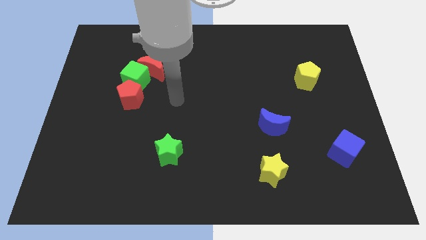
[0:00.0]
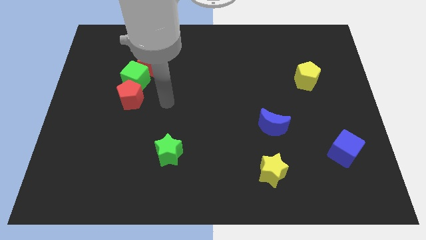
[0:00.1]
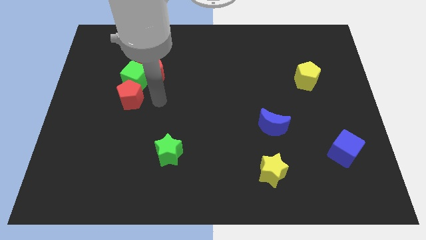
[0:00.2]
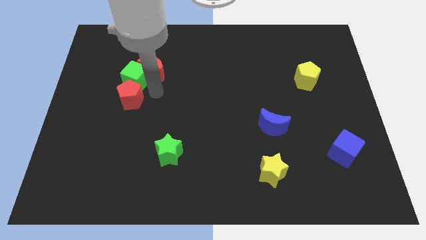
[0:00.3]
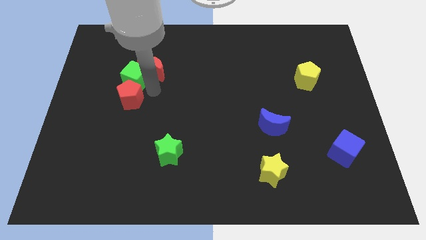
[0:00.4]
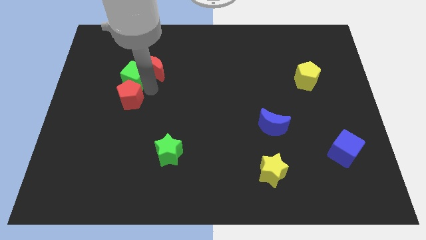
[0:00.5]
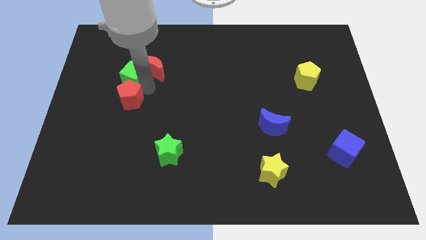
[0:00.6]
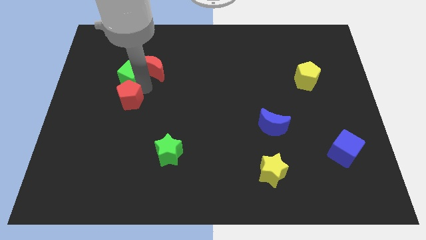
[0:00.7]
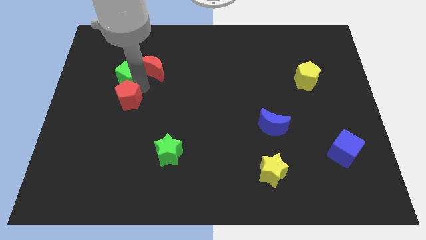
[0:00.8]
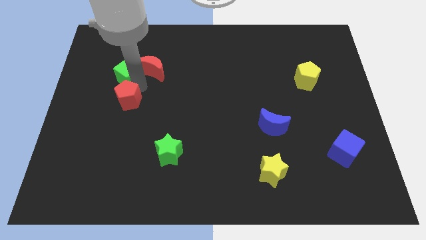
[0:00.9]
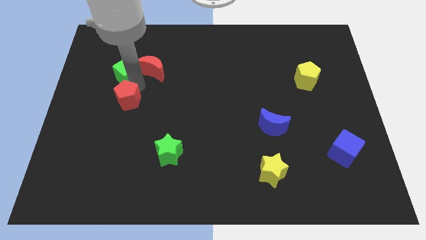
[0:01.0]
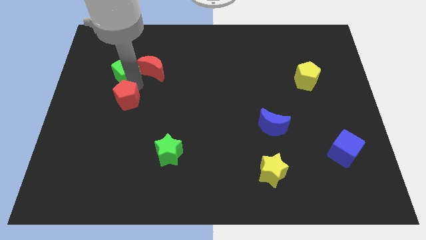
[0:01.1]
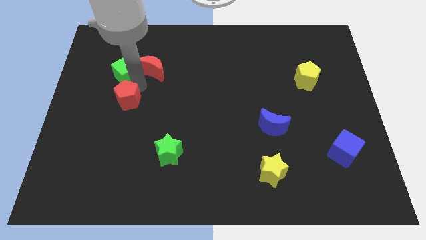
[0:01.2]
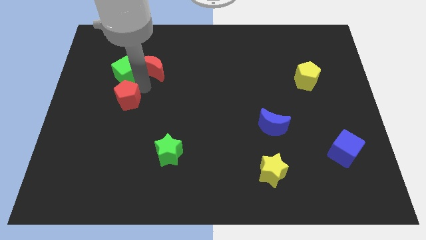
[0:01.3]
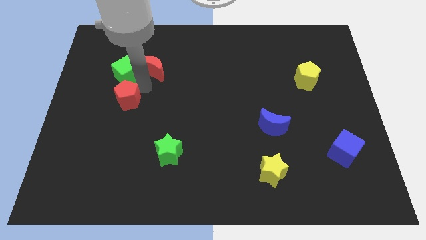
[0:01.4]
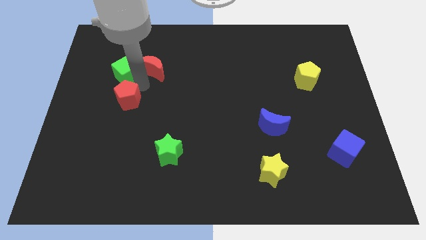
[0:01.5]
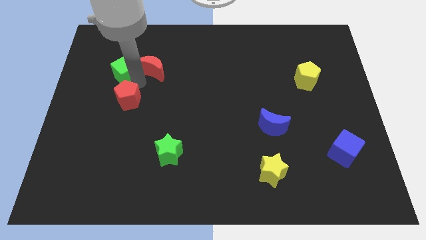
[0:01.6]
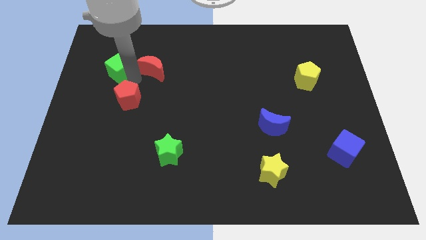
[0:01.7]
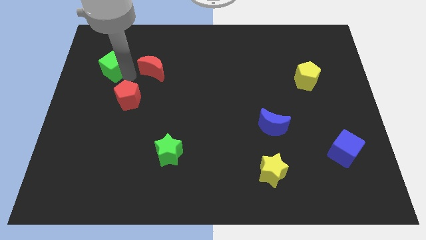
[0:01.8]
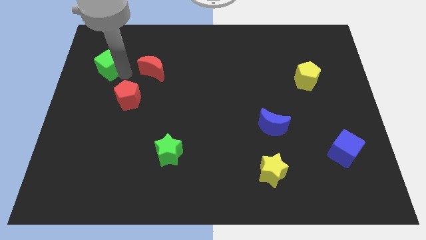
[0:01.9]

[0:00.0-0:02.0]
separate the green cube from the red moon and red pentagon

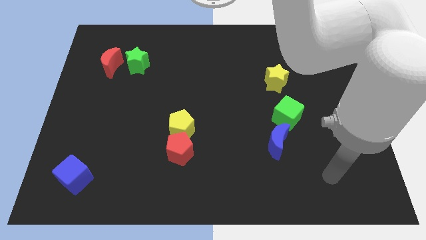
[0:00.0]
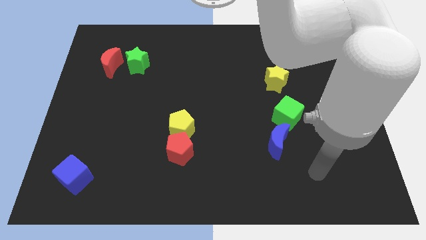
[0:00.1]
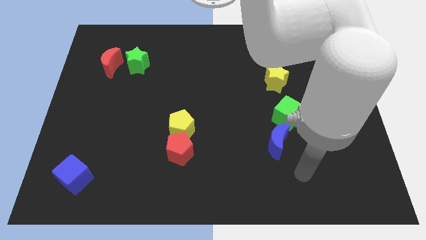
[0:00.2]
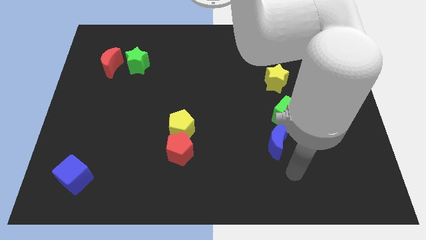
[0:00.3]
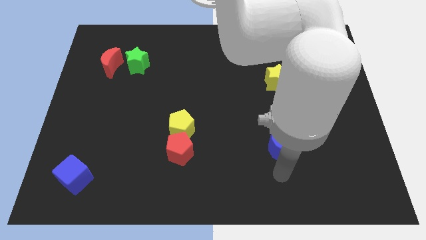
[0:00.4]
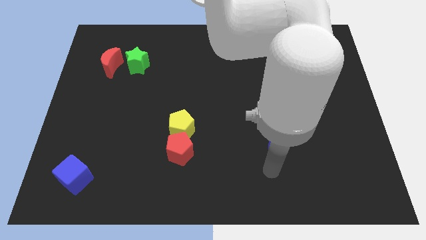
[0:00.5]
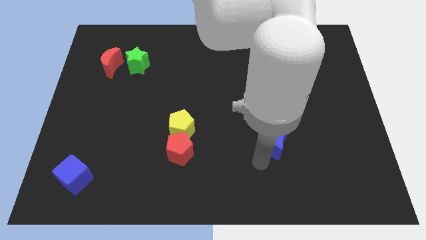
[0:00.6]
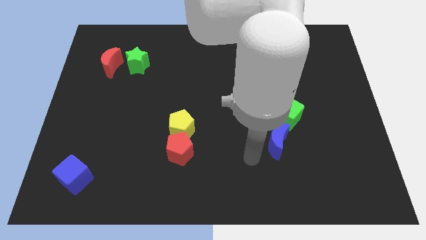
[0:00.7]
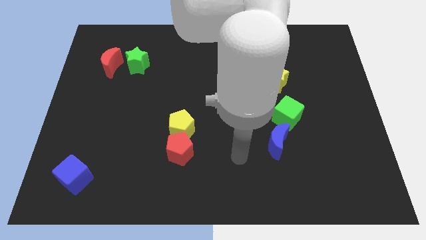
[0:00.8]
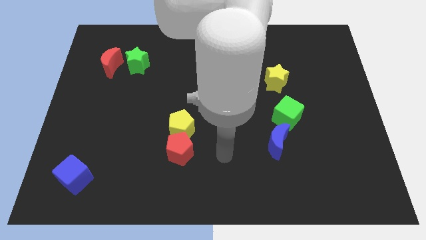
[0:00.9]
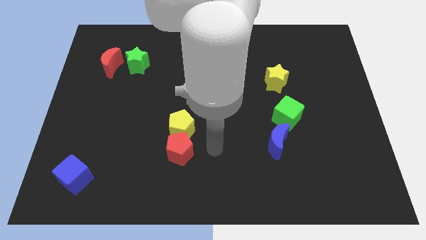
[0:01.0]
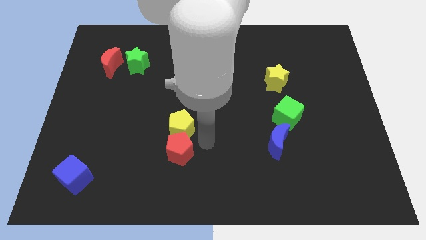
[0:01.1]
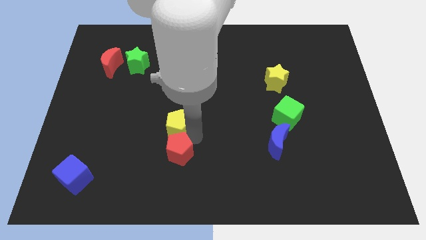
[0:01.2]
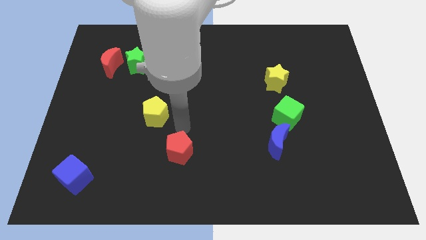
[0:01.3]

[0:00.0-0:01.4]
pull the red pentagon apart from the yellow pentagon

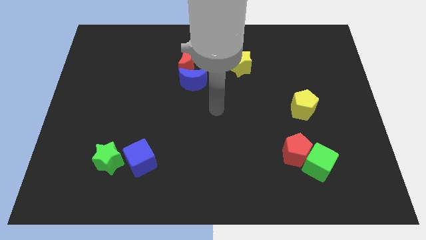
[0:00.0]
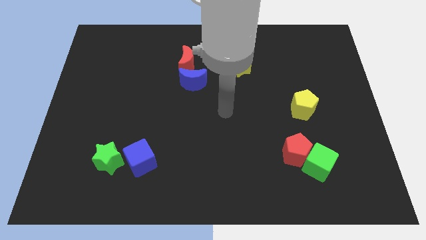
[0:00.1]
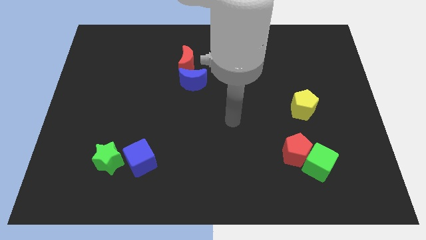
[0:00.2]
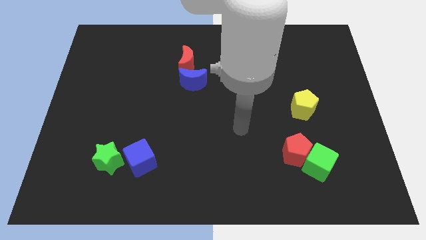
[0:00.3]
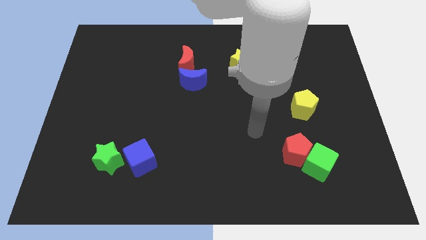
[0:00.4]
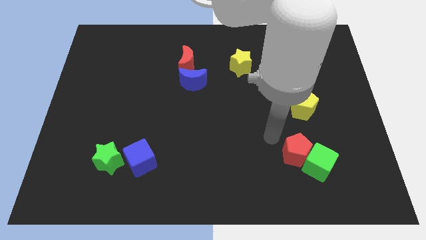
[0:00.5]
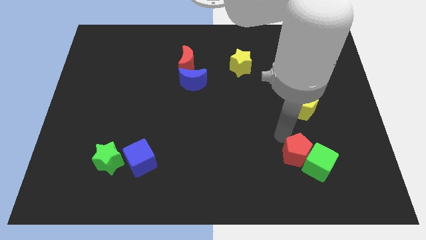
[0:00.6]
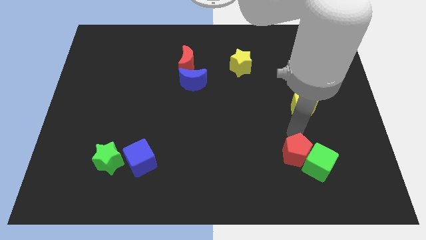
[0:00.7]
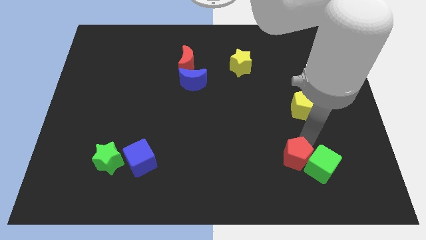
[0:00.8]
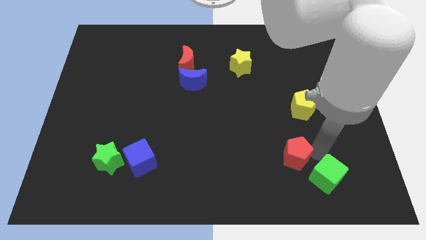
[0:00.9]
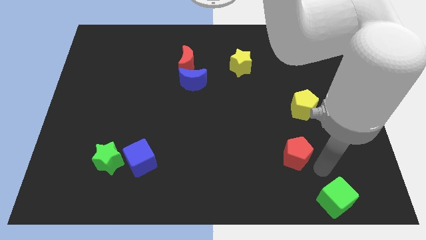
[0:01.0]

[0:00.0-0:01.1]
separate the red pentagon from the green cube

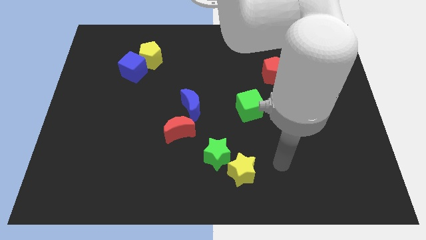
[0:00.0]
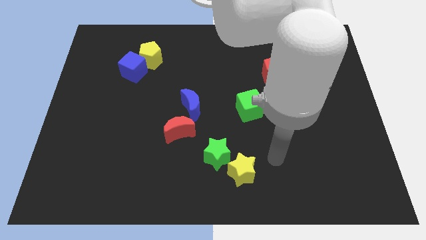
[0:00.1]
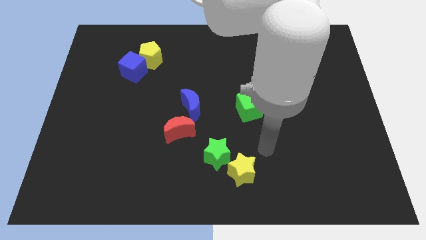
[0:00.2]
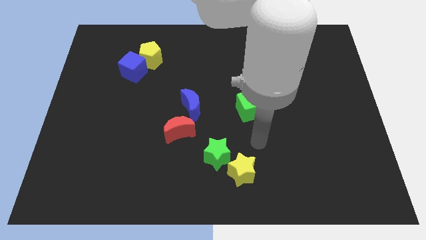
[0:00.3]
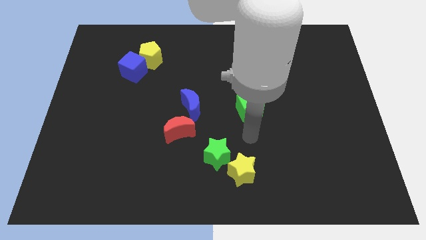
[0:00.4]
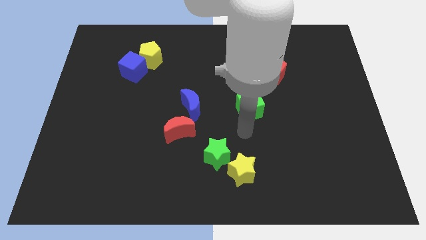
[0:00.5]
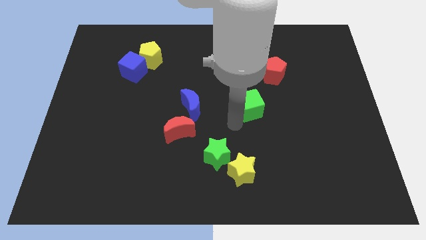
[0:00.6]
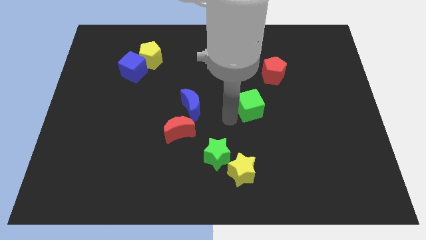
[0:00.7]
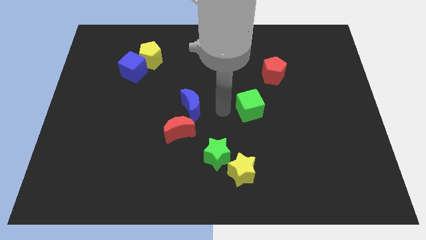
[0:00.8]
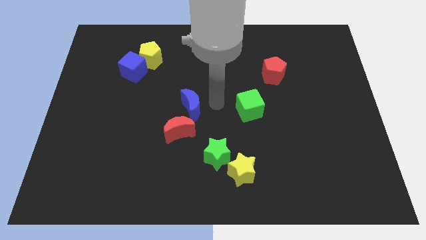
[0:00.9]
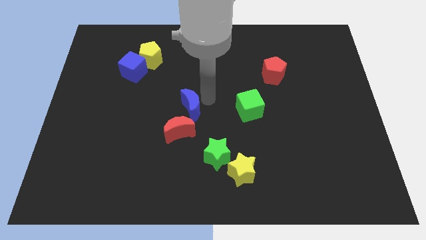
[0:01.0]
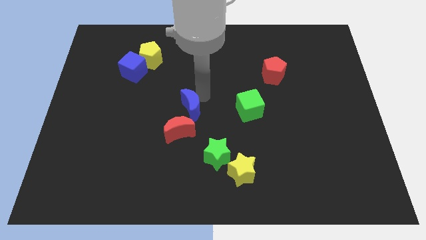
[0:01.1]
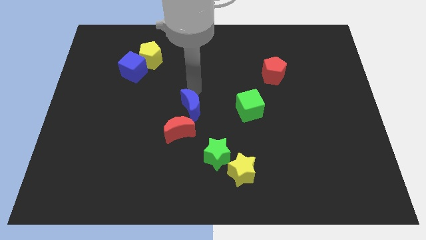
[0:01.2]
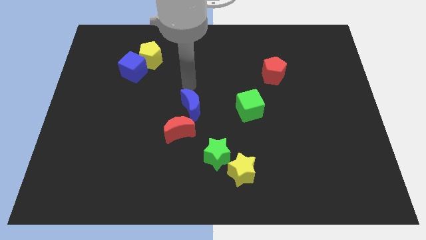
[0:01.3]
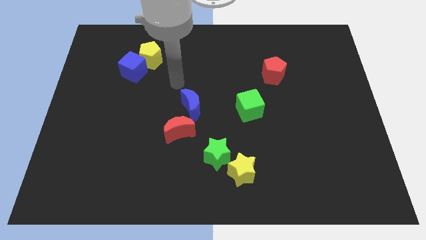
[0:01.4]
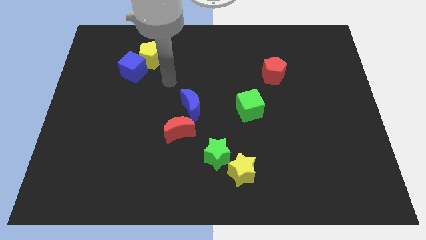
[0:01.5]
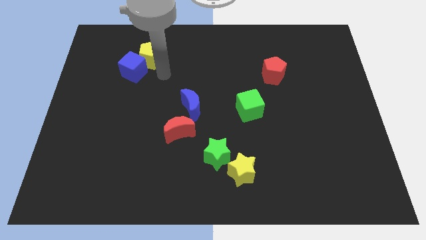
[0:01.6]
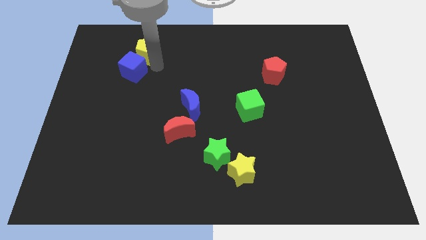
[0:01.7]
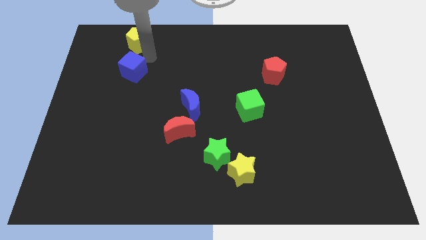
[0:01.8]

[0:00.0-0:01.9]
move the blue cube away from the yellow pentagon

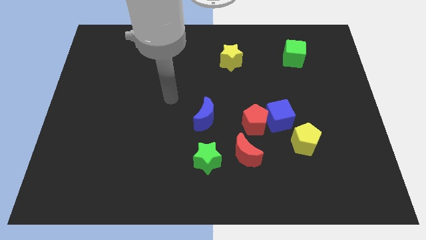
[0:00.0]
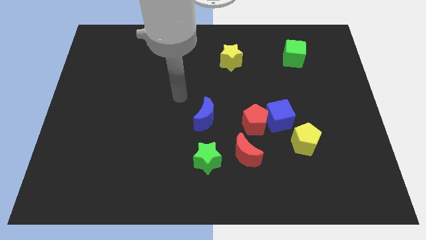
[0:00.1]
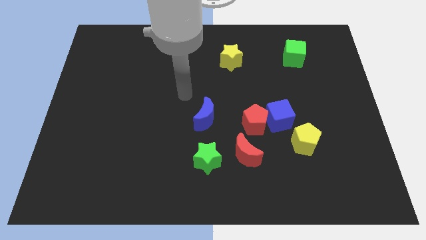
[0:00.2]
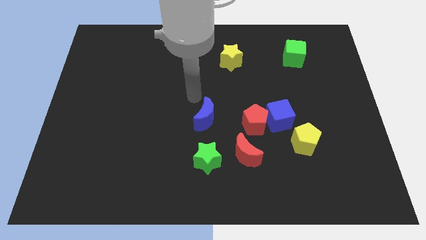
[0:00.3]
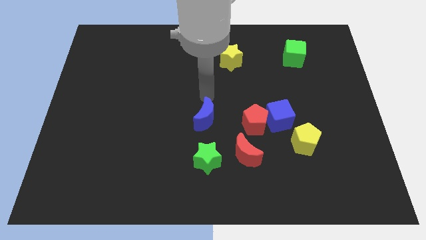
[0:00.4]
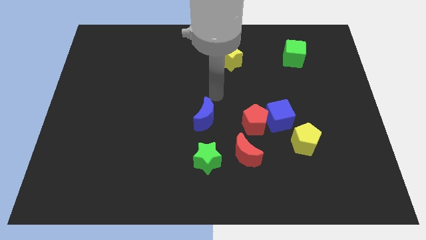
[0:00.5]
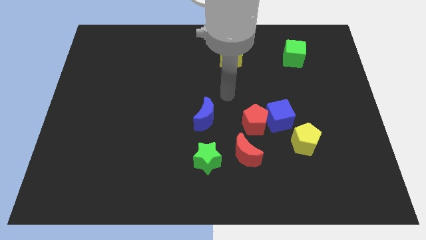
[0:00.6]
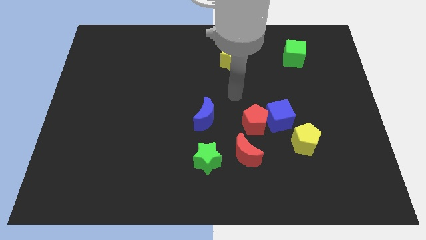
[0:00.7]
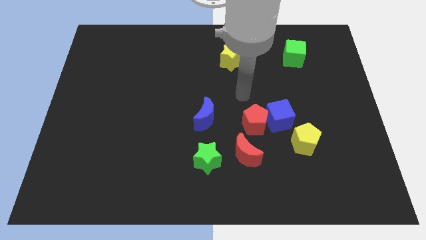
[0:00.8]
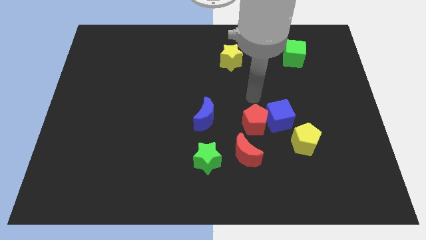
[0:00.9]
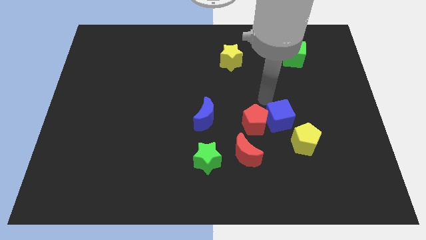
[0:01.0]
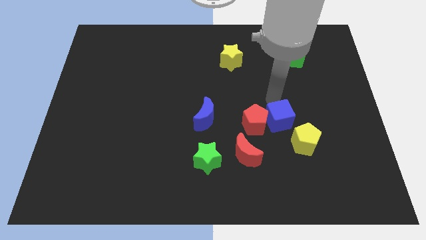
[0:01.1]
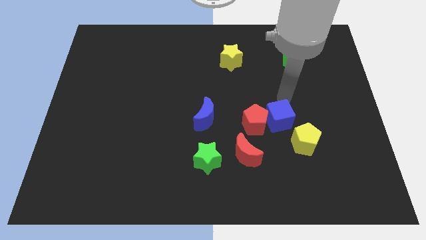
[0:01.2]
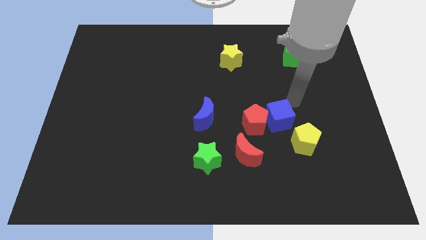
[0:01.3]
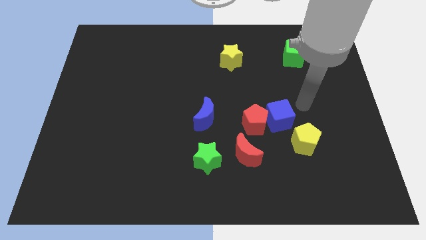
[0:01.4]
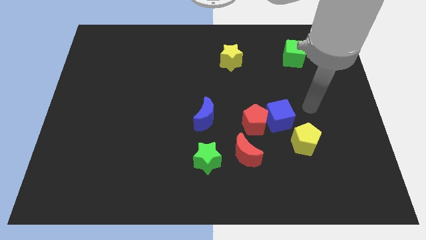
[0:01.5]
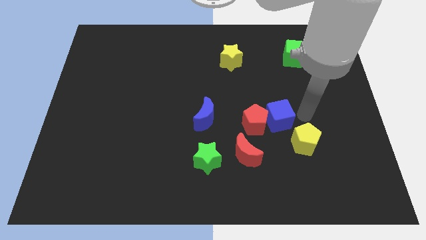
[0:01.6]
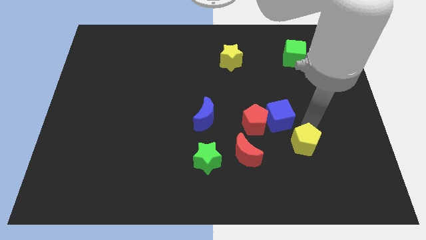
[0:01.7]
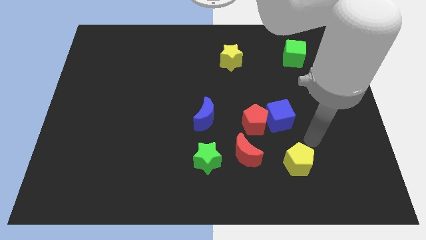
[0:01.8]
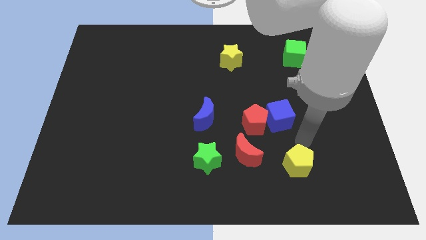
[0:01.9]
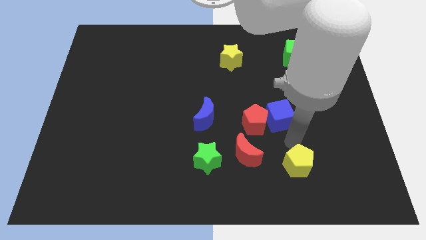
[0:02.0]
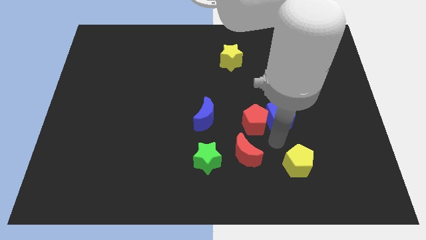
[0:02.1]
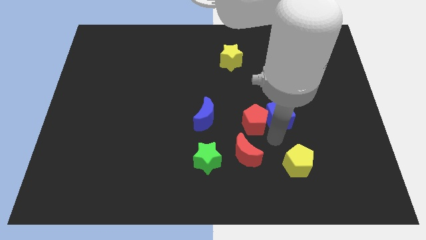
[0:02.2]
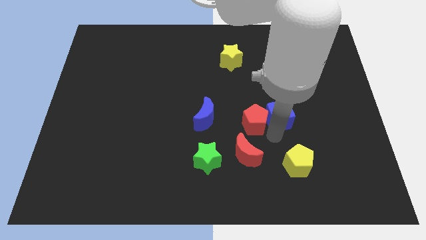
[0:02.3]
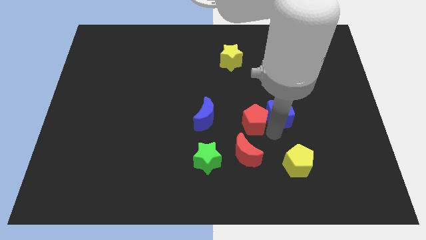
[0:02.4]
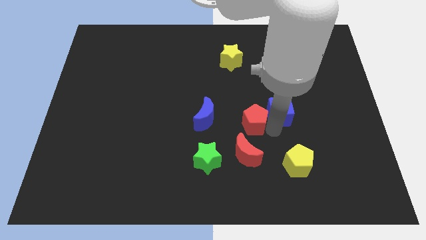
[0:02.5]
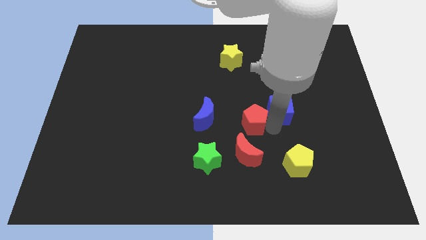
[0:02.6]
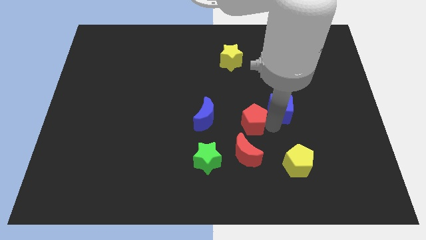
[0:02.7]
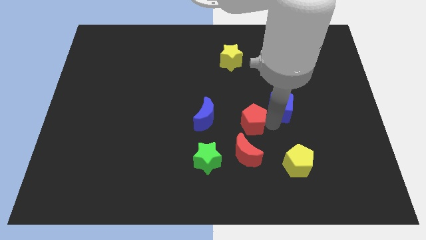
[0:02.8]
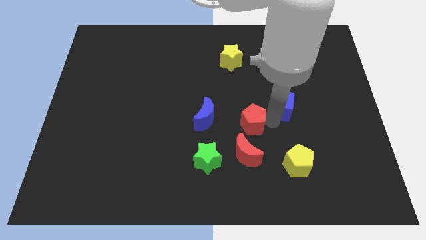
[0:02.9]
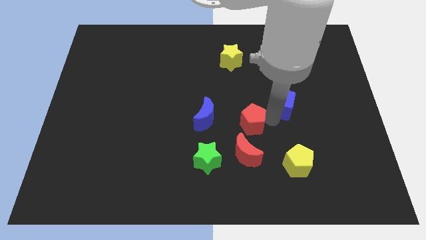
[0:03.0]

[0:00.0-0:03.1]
pull the blue cube apart from the red pentagon and yellow pentagon

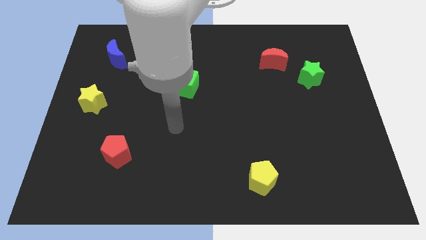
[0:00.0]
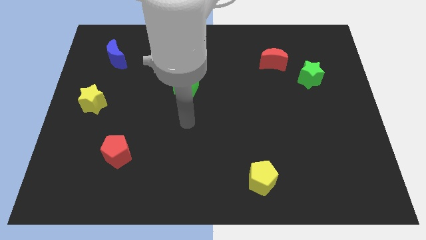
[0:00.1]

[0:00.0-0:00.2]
move the red moon away from the green star
